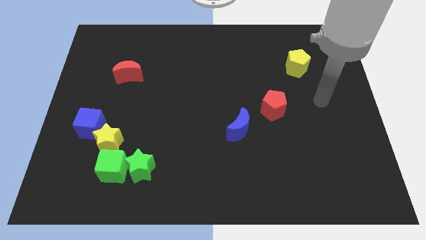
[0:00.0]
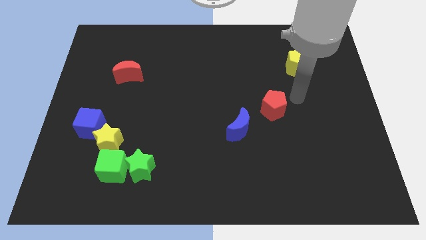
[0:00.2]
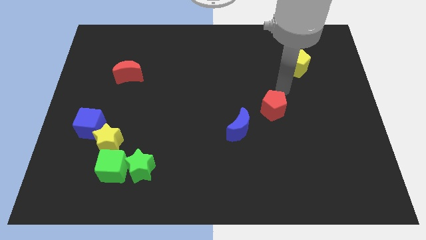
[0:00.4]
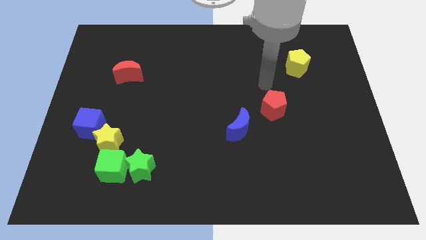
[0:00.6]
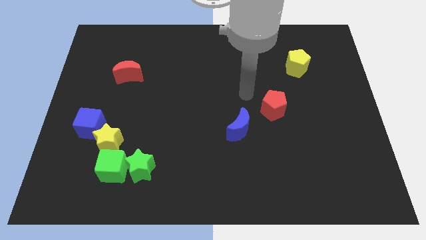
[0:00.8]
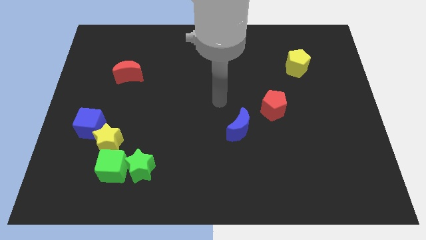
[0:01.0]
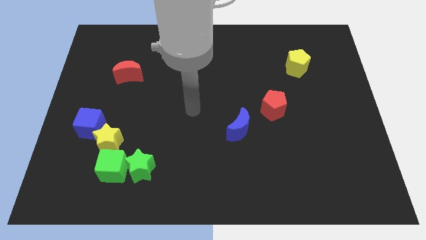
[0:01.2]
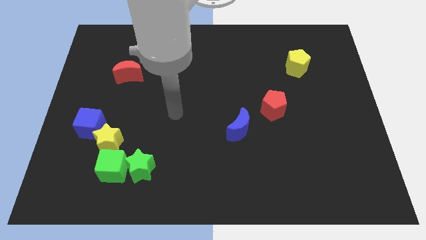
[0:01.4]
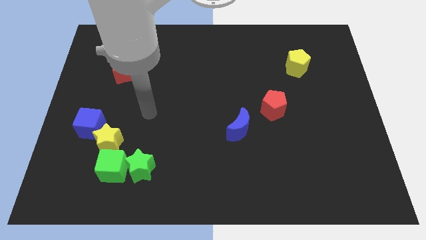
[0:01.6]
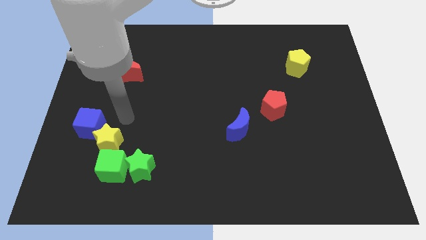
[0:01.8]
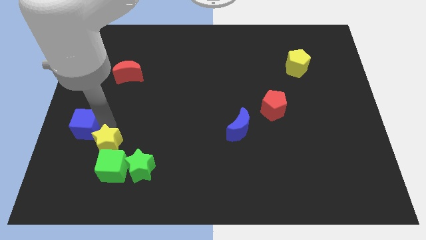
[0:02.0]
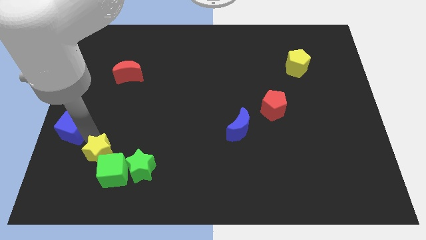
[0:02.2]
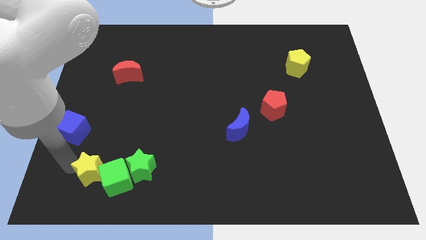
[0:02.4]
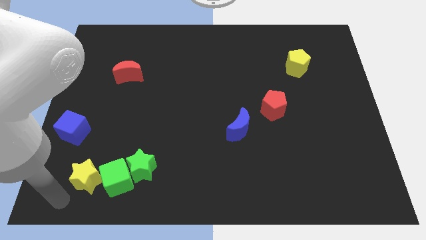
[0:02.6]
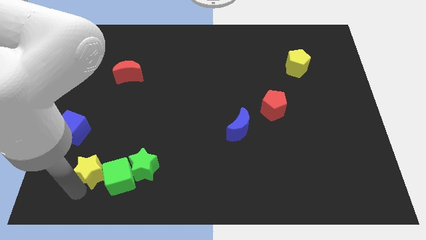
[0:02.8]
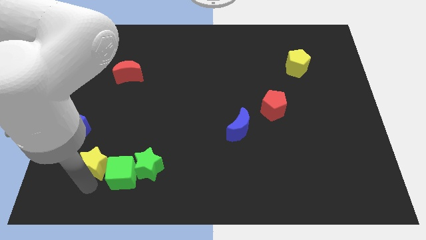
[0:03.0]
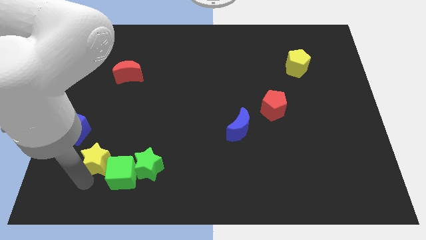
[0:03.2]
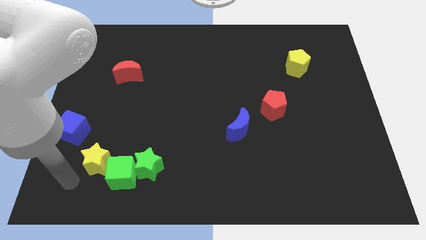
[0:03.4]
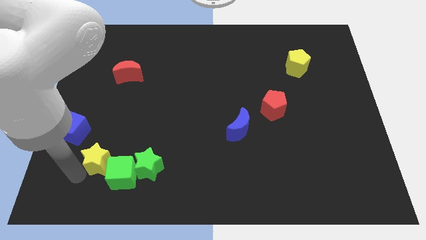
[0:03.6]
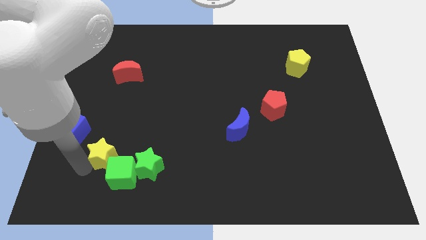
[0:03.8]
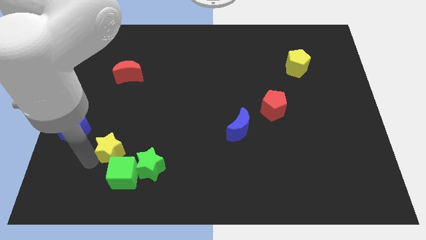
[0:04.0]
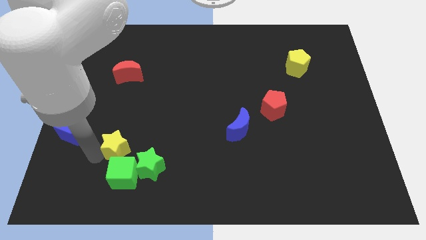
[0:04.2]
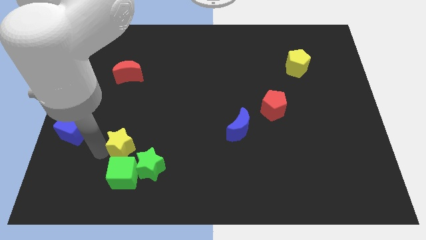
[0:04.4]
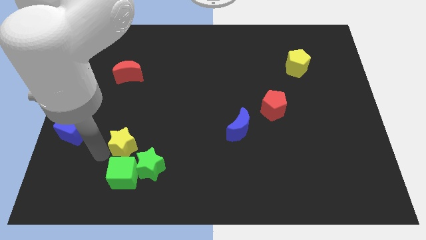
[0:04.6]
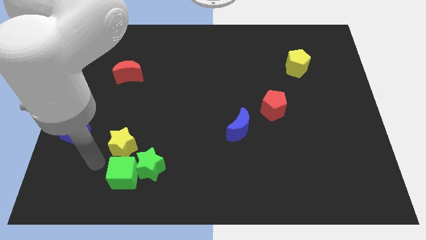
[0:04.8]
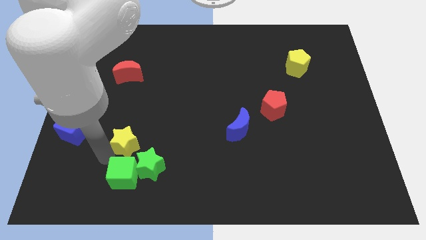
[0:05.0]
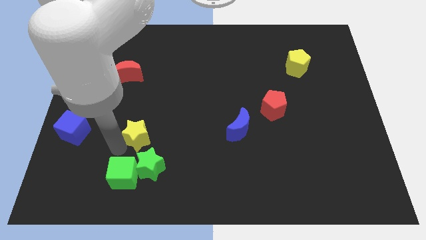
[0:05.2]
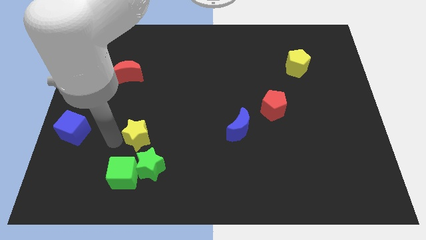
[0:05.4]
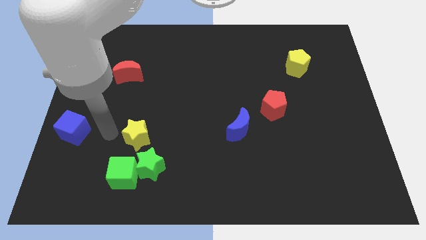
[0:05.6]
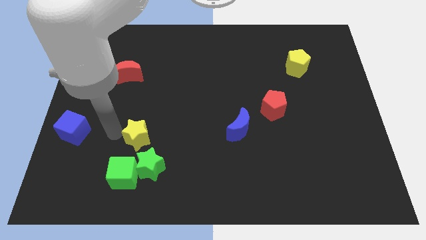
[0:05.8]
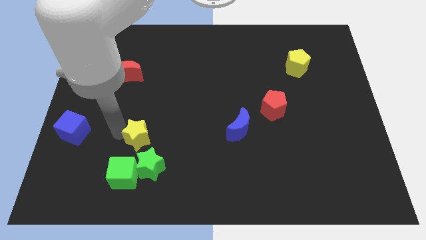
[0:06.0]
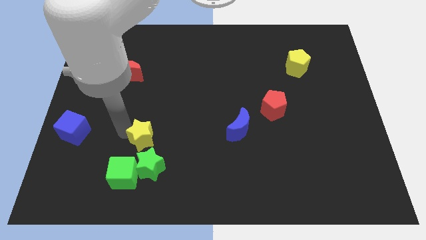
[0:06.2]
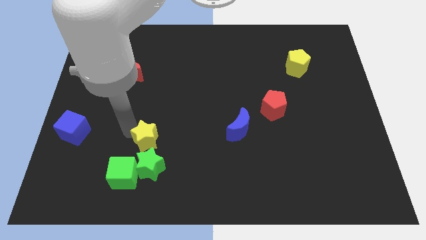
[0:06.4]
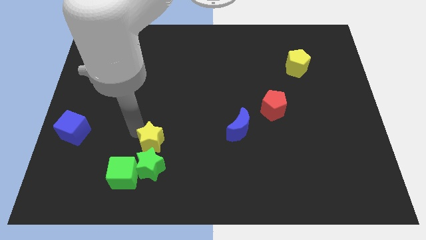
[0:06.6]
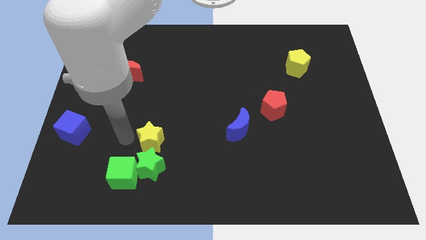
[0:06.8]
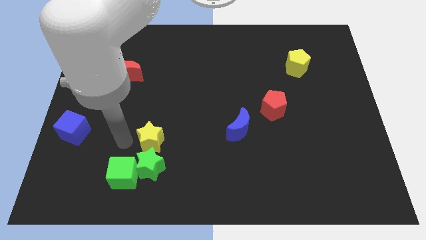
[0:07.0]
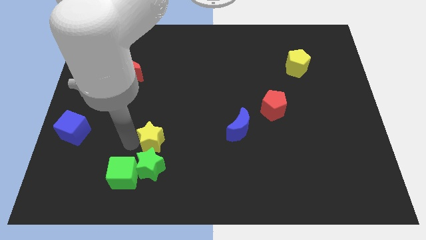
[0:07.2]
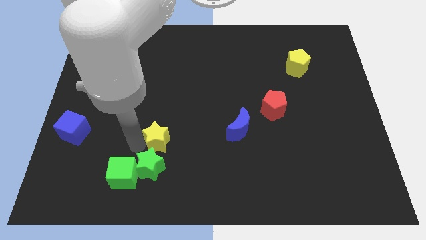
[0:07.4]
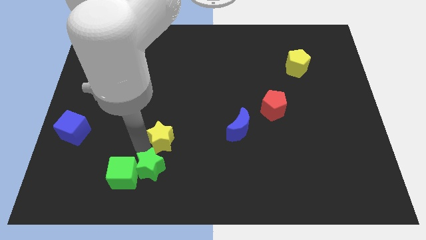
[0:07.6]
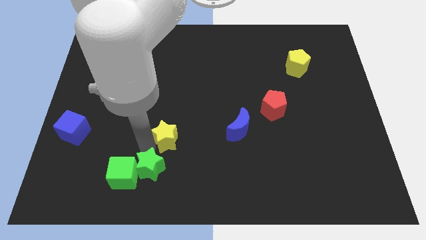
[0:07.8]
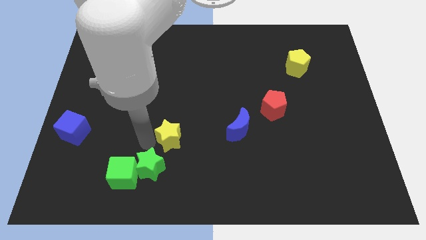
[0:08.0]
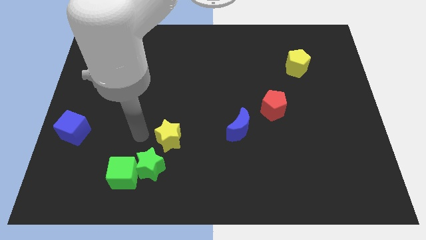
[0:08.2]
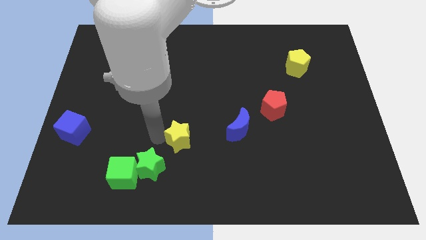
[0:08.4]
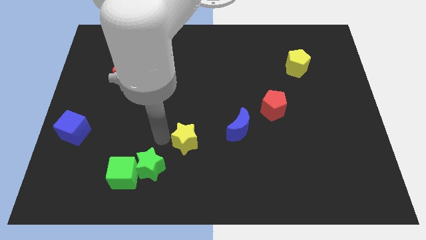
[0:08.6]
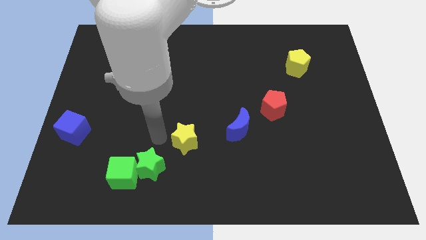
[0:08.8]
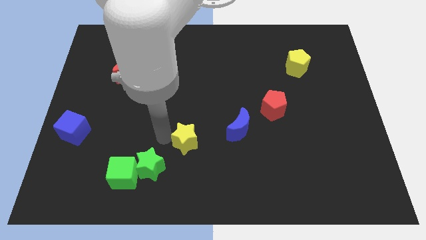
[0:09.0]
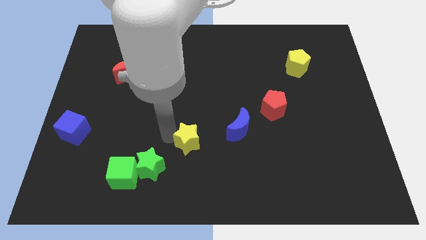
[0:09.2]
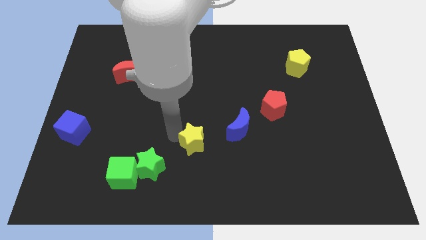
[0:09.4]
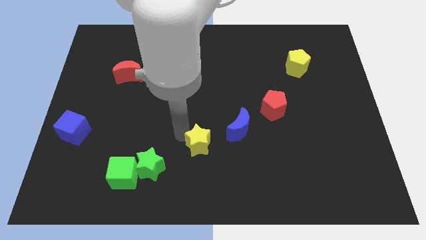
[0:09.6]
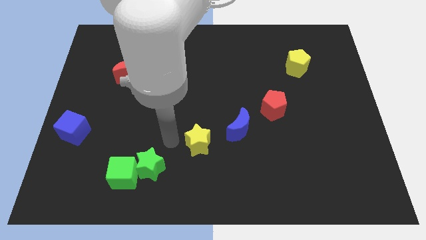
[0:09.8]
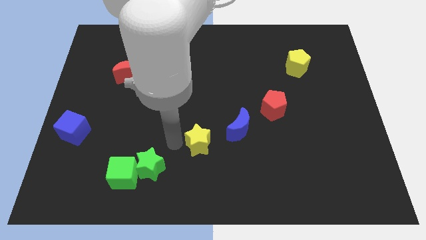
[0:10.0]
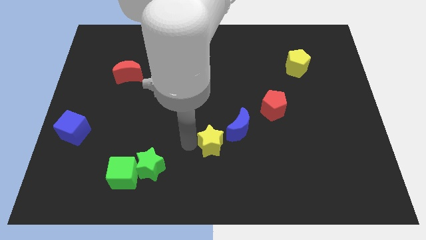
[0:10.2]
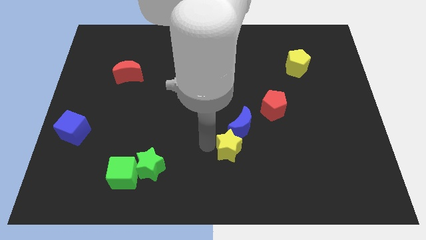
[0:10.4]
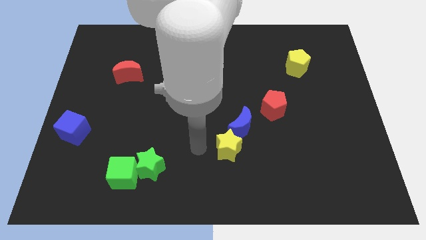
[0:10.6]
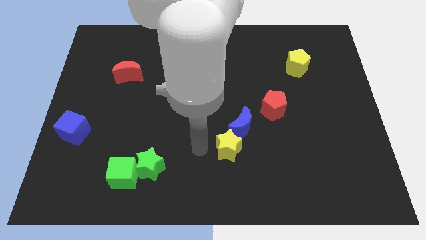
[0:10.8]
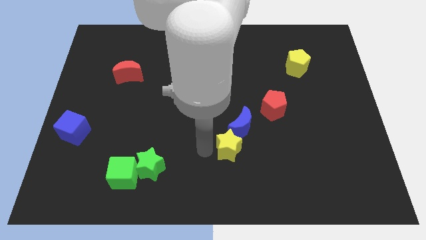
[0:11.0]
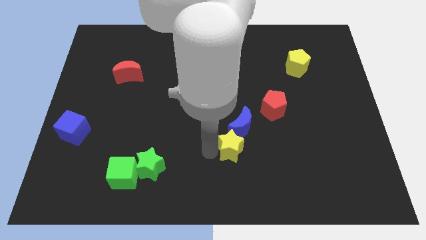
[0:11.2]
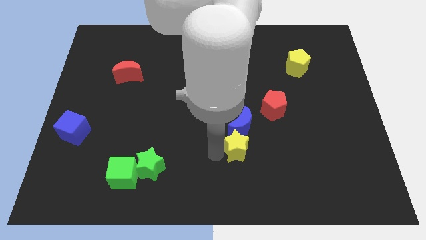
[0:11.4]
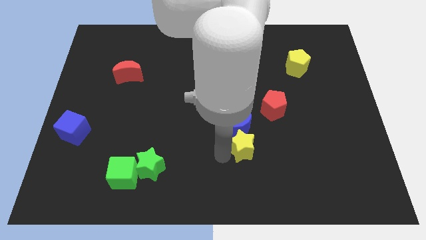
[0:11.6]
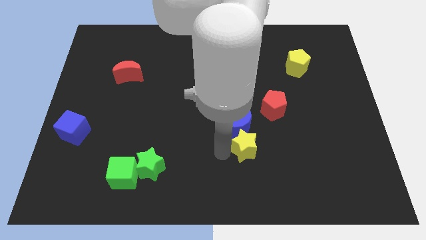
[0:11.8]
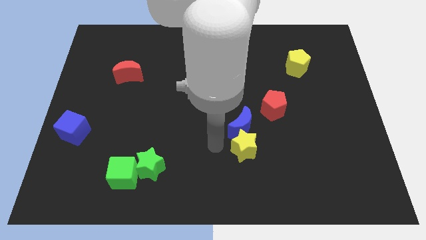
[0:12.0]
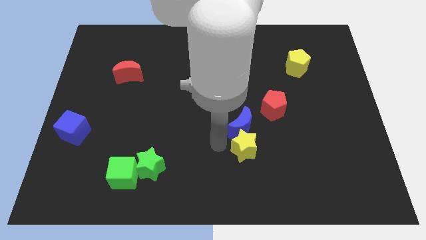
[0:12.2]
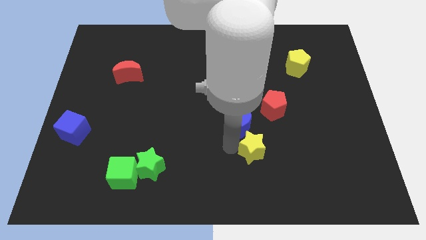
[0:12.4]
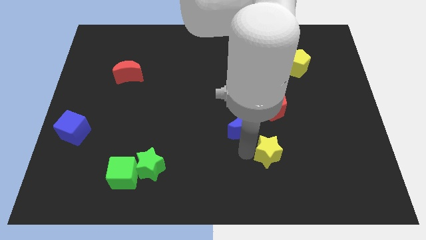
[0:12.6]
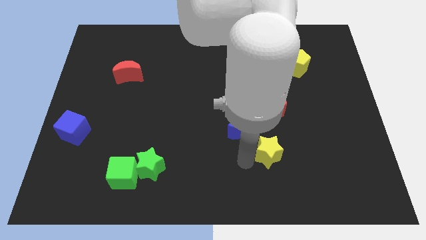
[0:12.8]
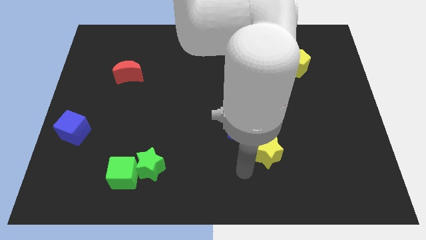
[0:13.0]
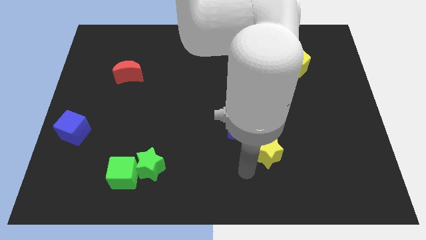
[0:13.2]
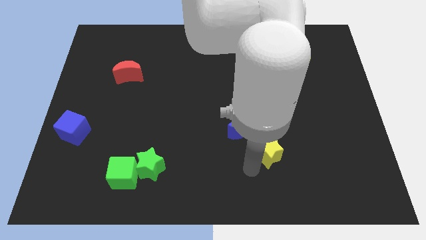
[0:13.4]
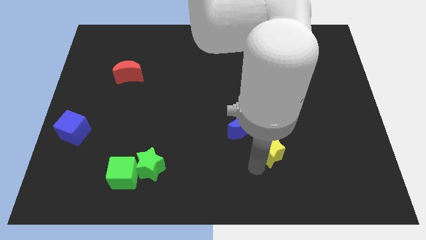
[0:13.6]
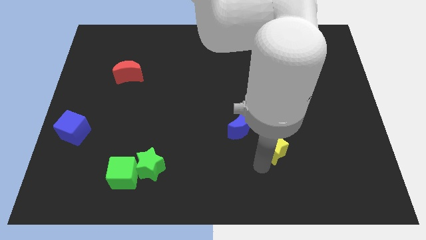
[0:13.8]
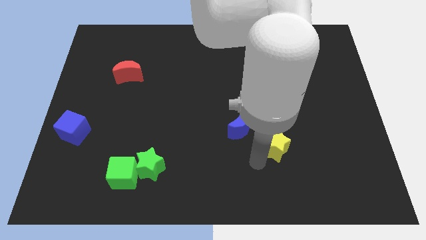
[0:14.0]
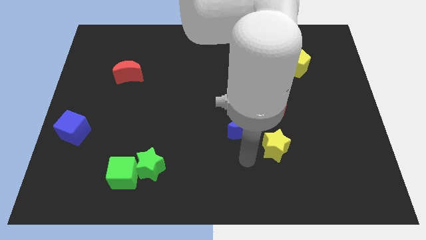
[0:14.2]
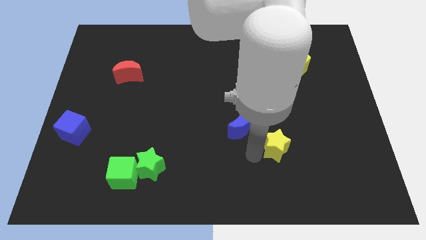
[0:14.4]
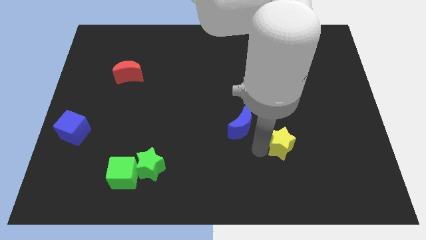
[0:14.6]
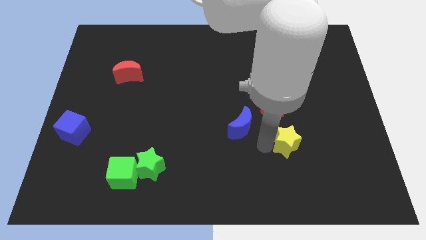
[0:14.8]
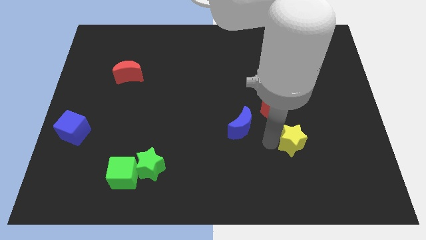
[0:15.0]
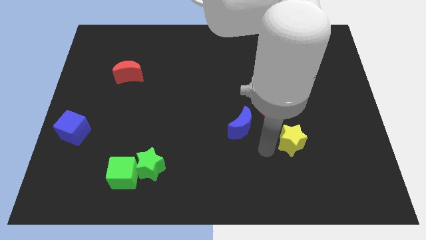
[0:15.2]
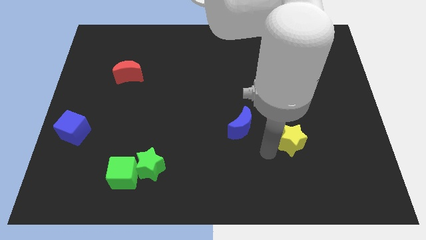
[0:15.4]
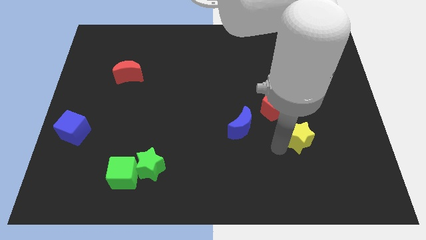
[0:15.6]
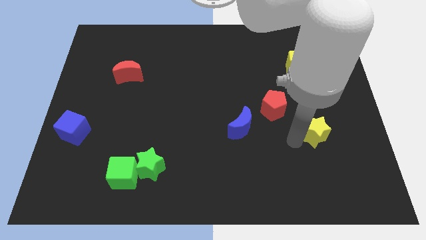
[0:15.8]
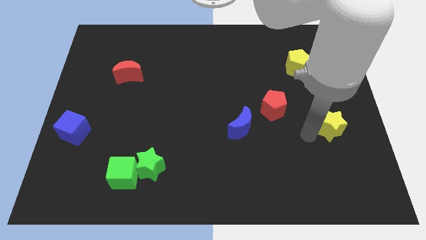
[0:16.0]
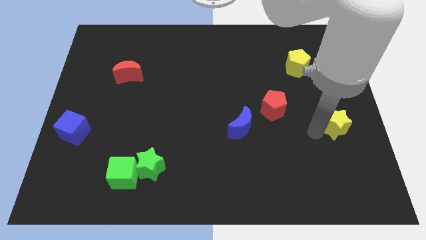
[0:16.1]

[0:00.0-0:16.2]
move the yellow star to the center right
